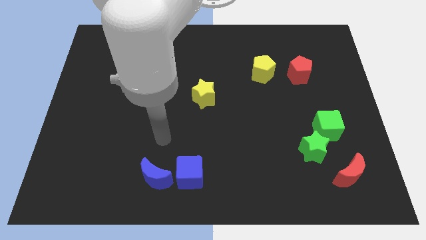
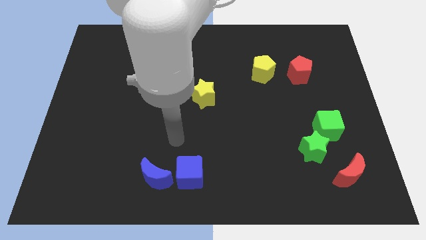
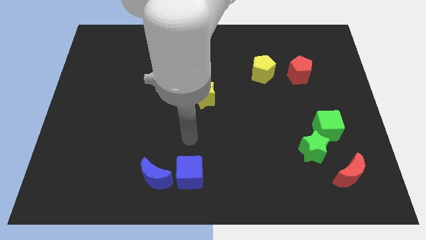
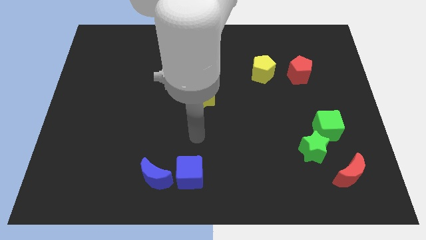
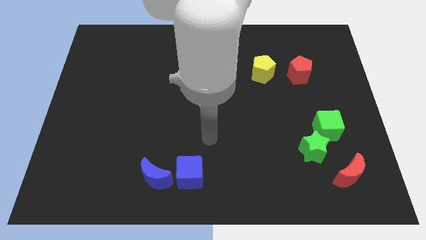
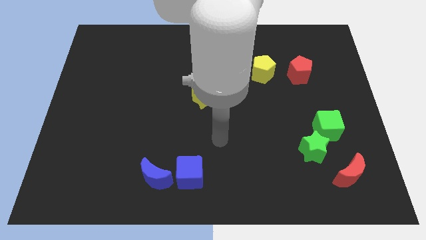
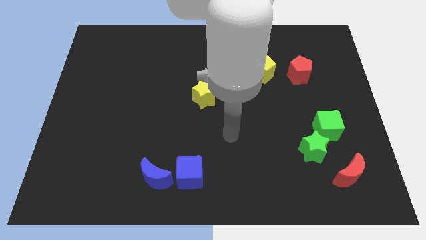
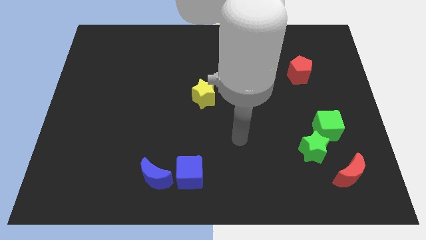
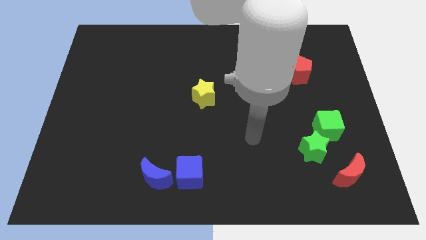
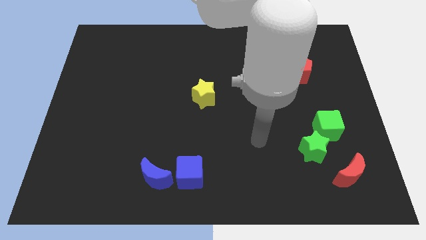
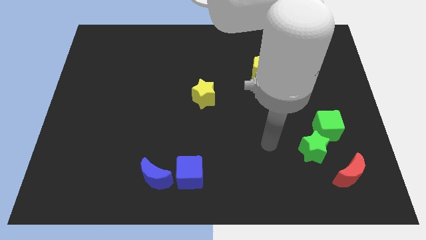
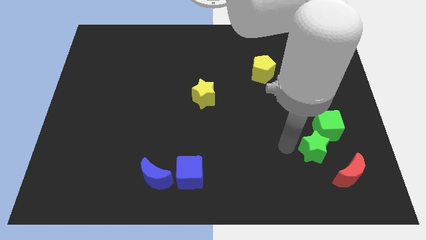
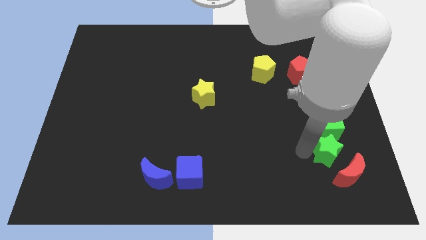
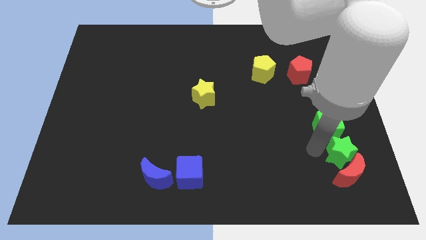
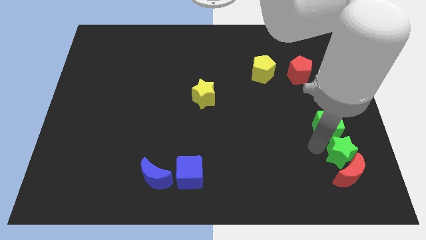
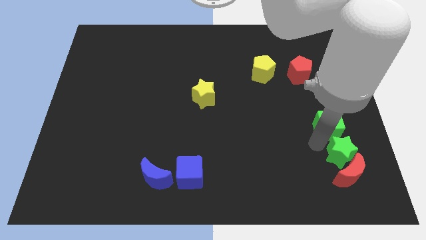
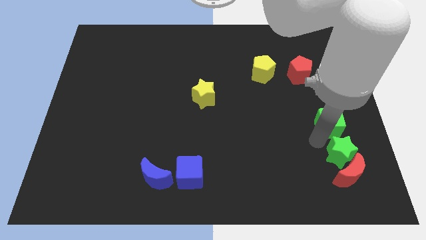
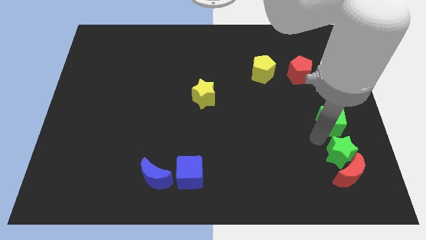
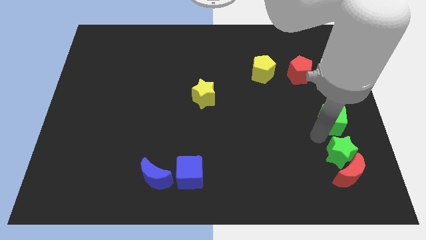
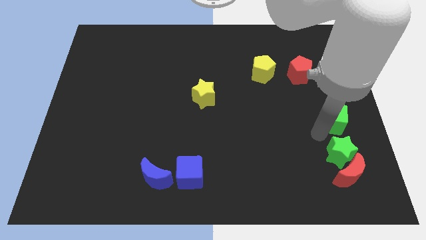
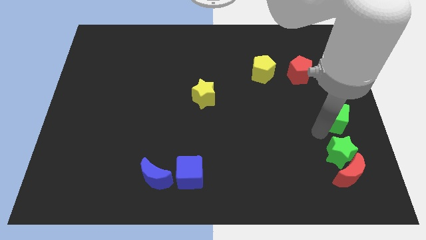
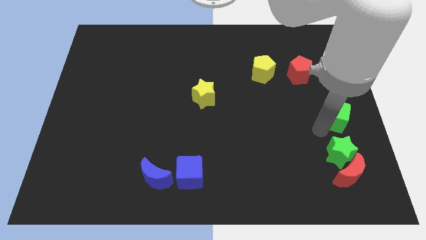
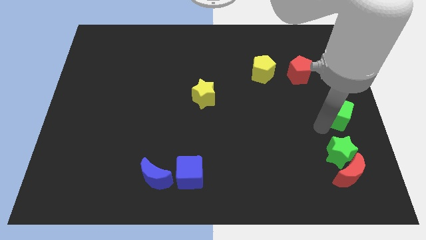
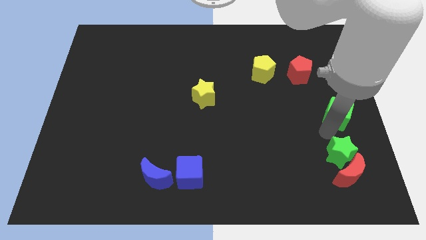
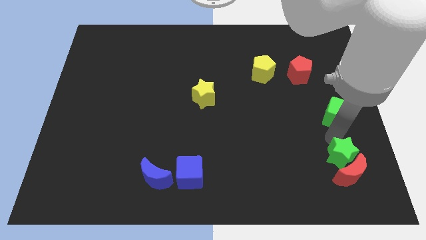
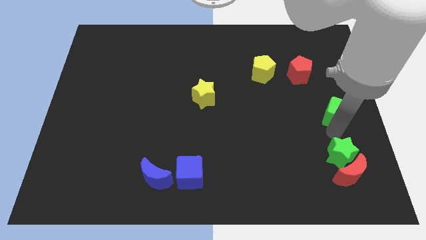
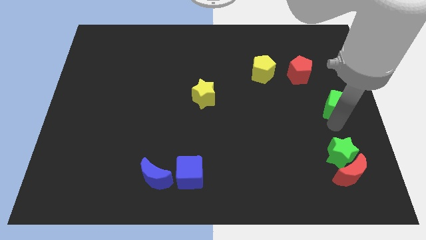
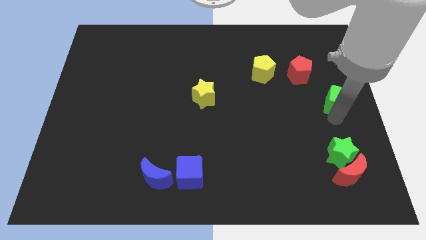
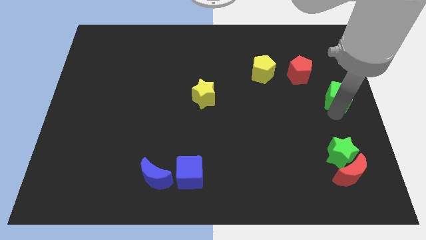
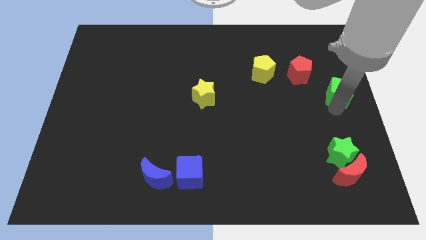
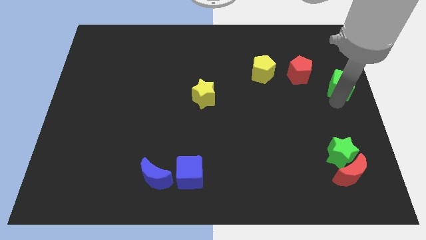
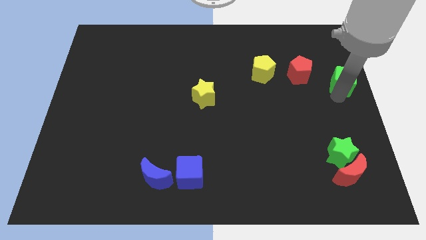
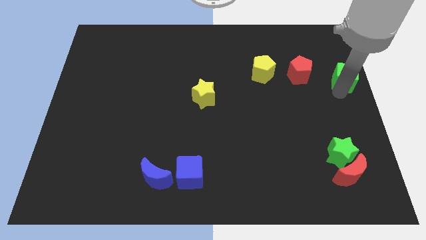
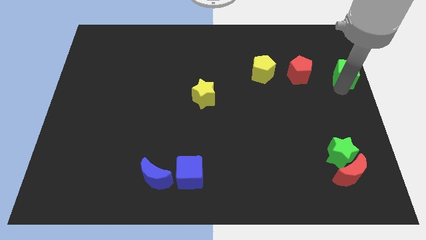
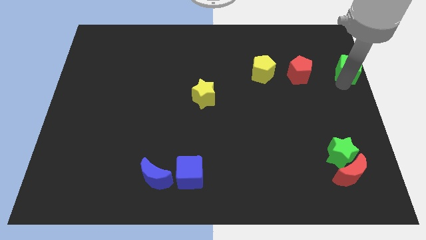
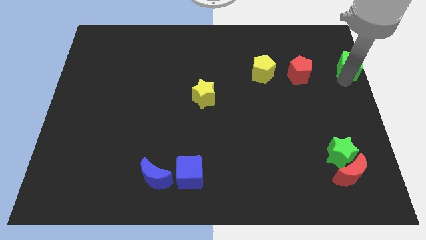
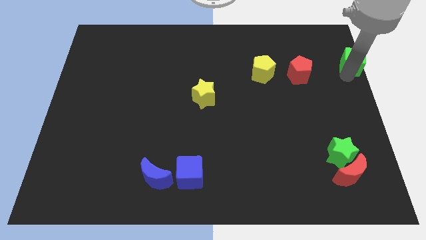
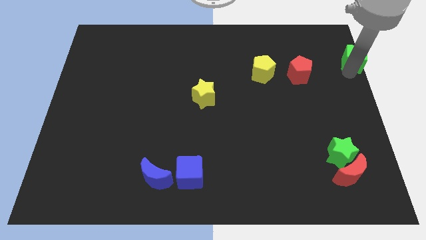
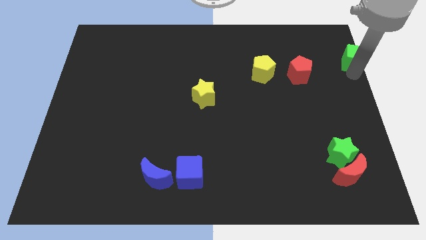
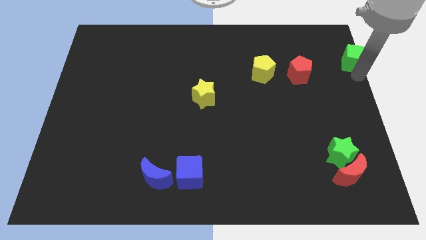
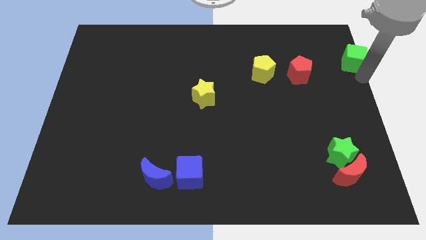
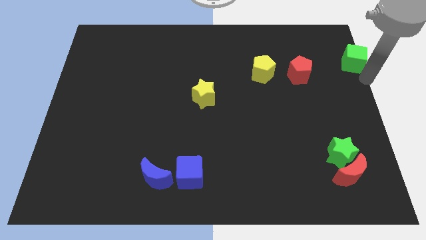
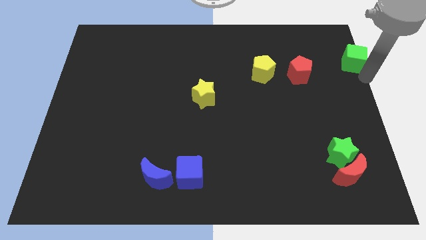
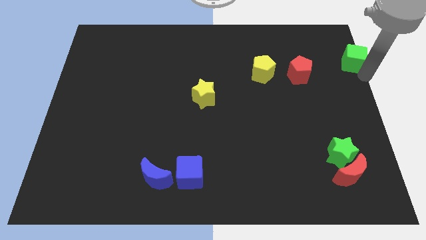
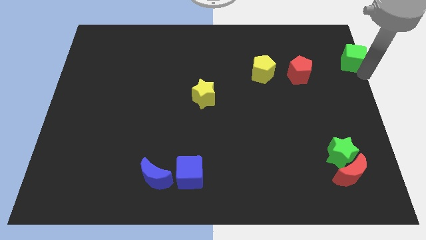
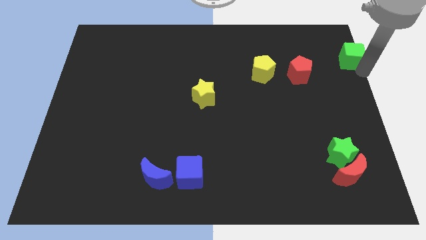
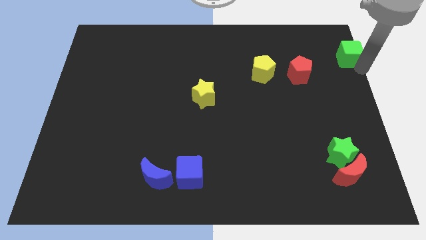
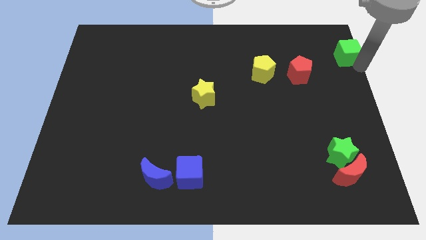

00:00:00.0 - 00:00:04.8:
push the green cube to the top right corner

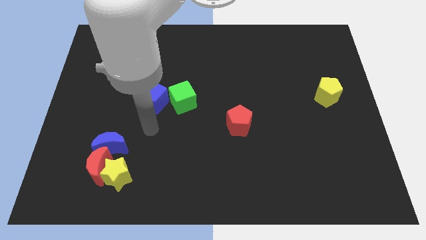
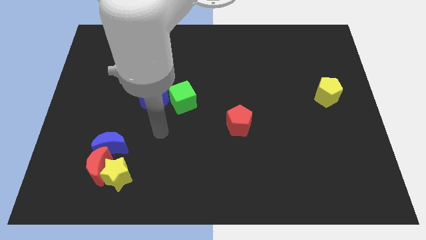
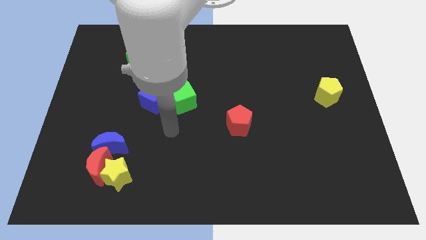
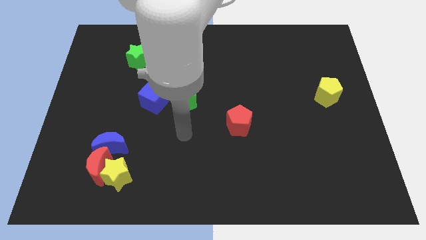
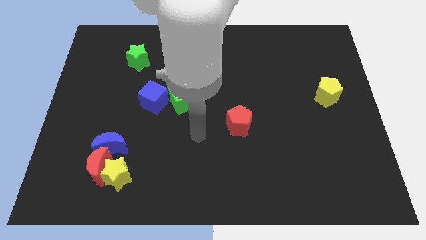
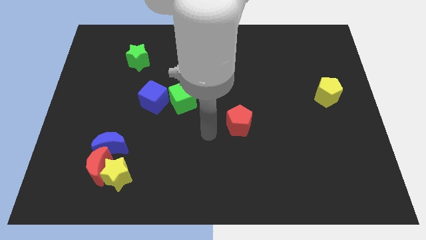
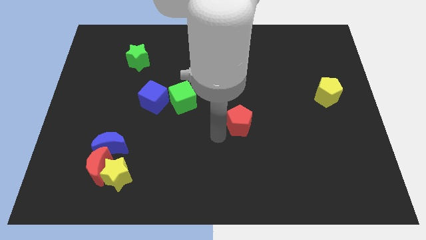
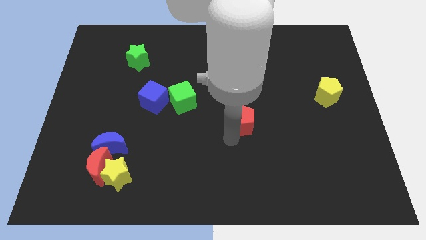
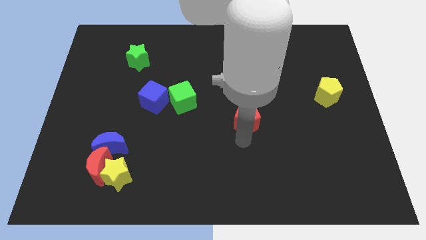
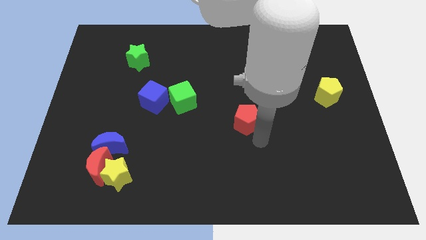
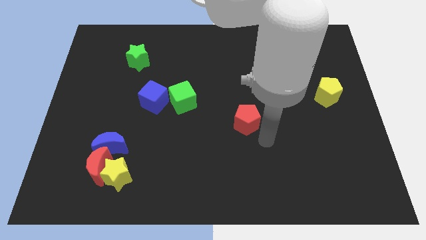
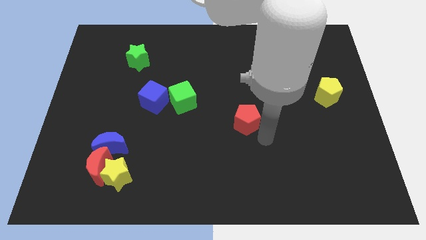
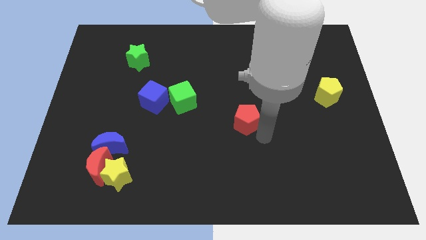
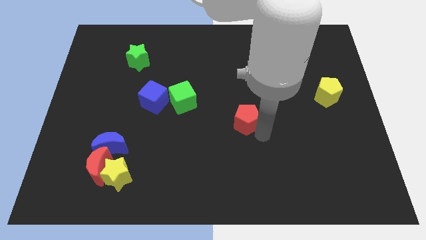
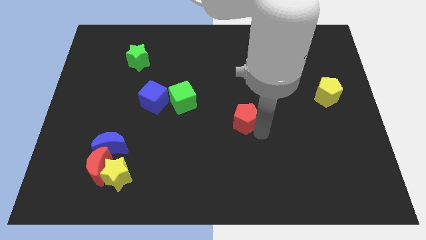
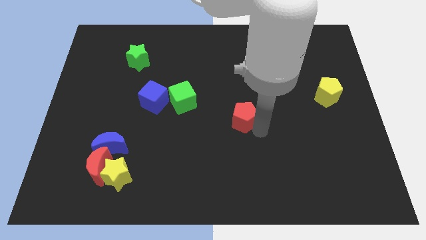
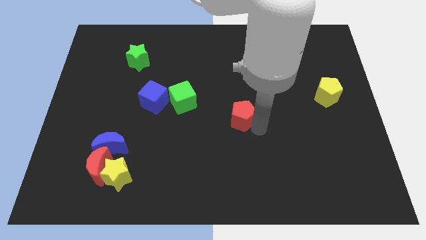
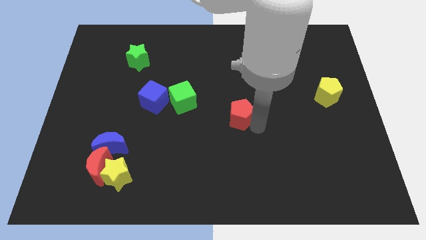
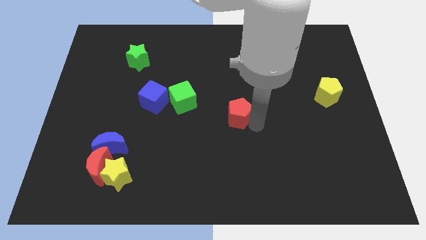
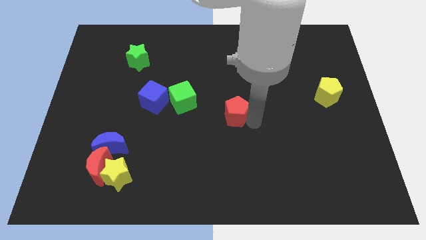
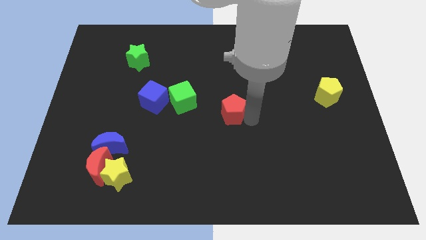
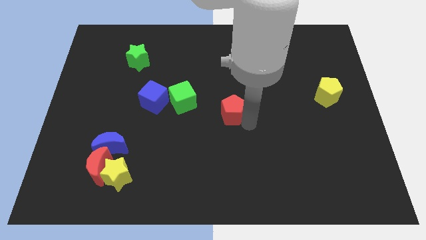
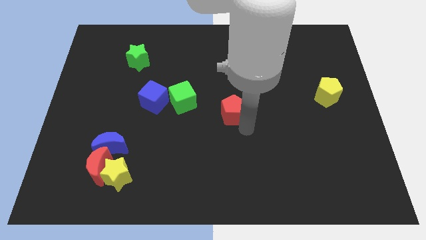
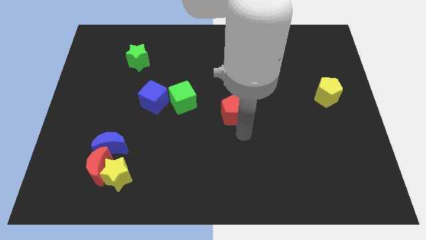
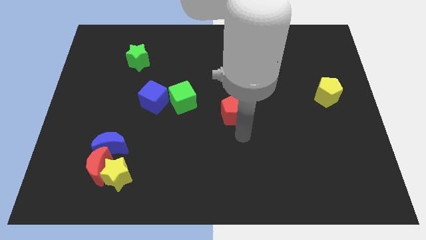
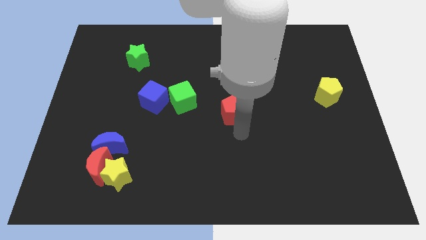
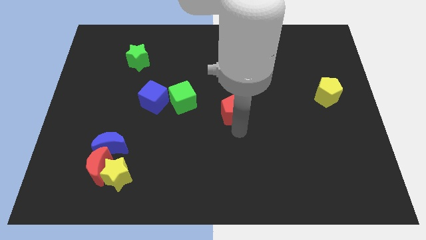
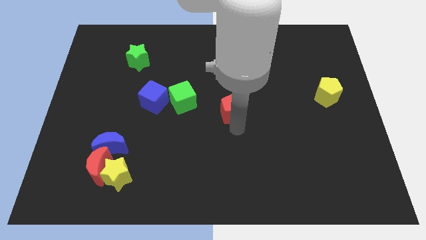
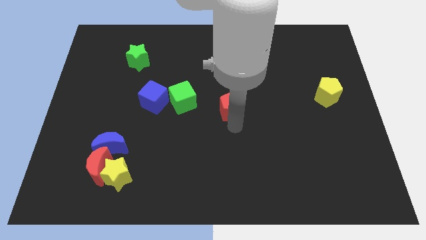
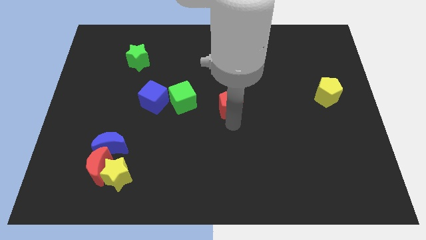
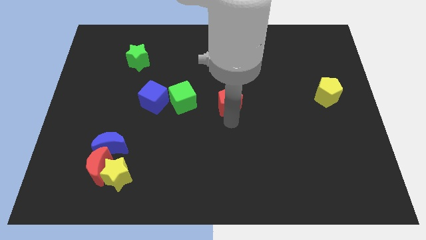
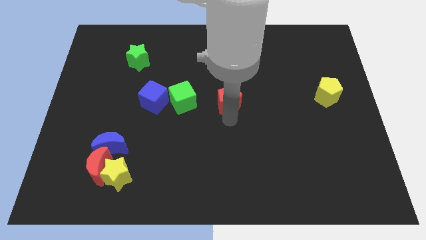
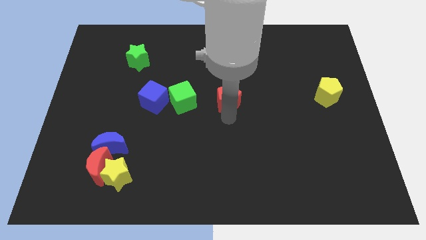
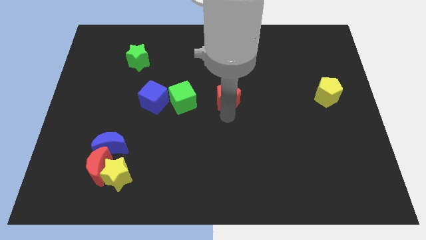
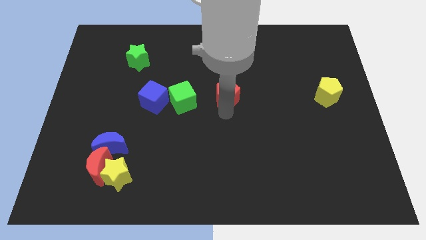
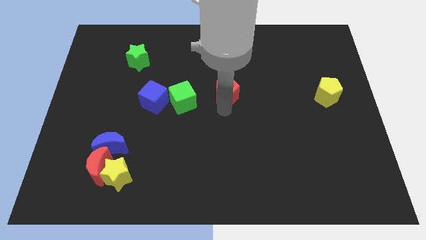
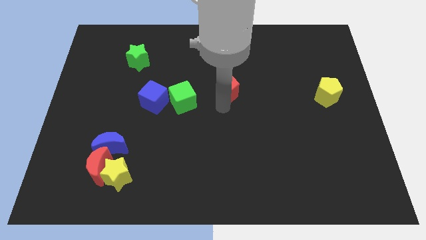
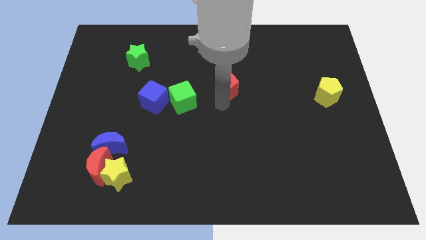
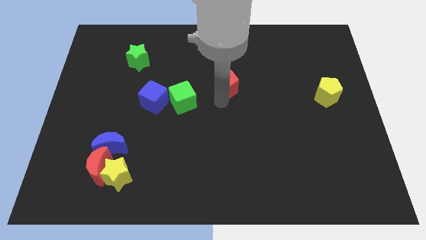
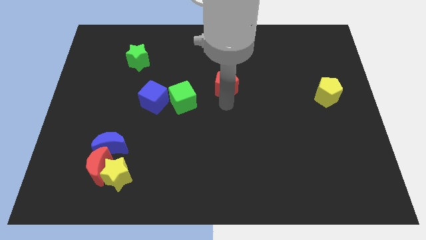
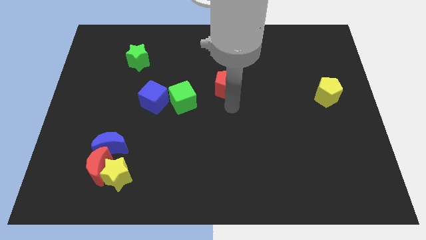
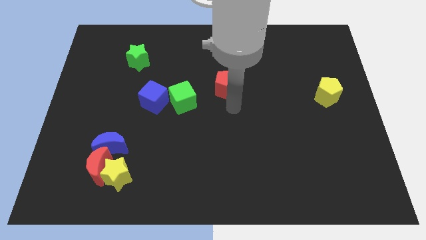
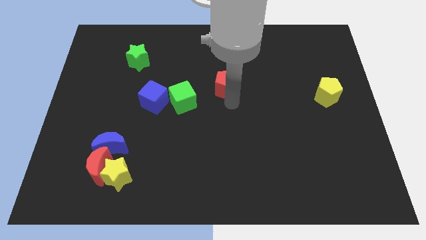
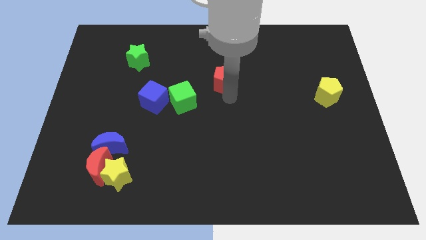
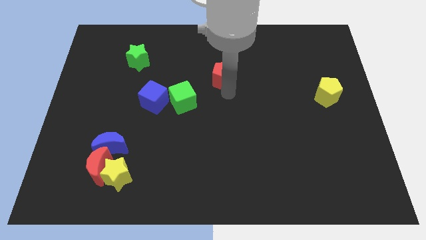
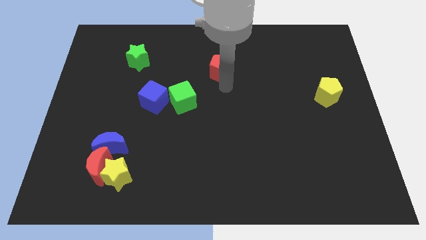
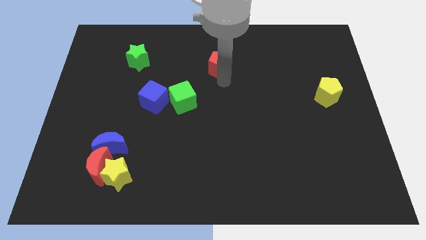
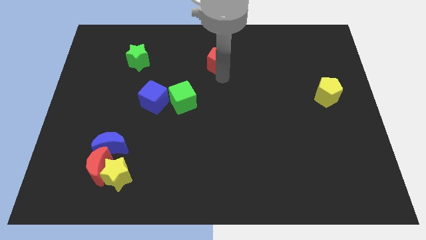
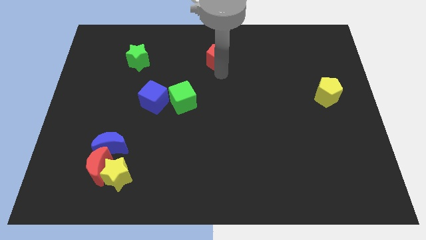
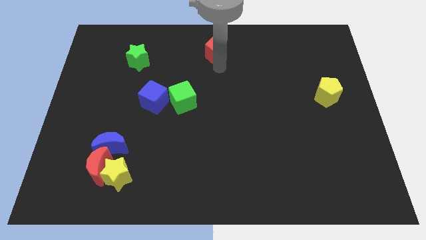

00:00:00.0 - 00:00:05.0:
push the red pentagon to the towards your base
